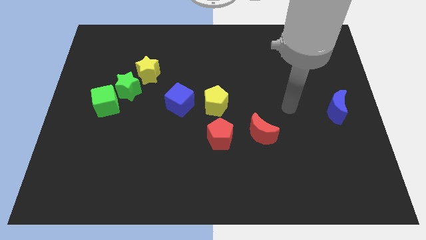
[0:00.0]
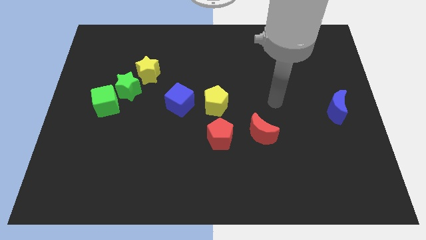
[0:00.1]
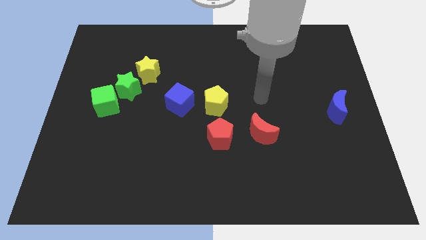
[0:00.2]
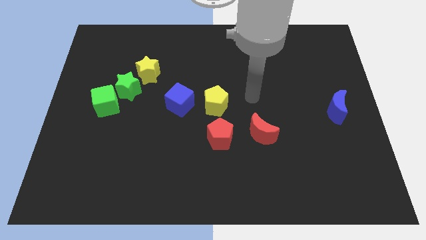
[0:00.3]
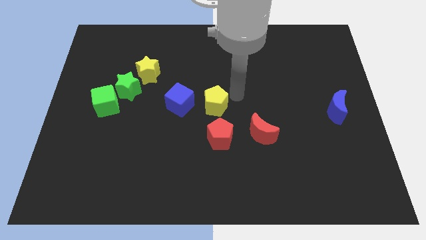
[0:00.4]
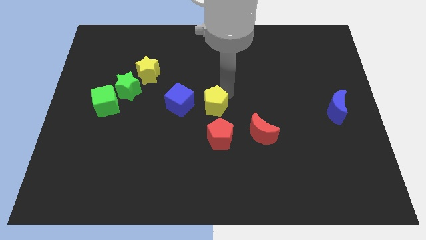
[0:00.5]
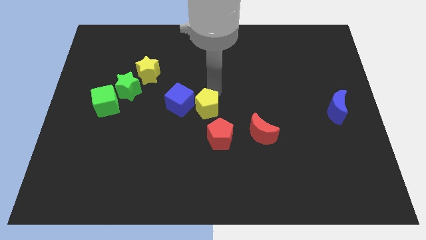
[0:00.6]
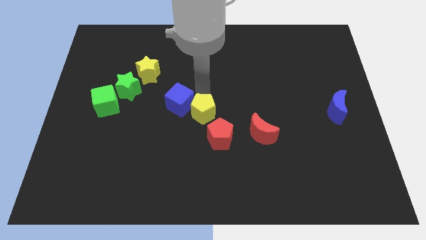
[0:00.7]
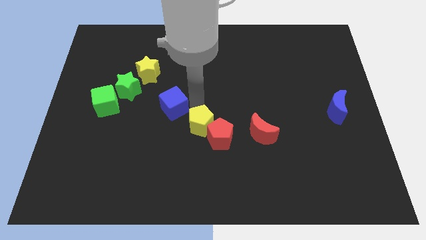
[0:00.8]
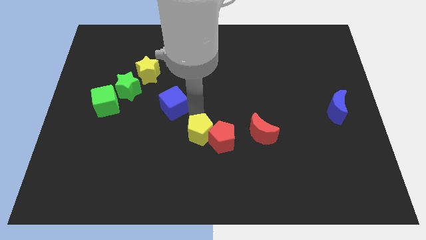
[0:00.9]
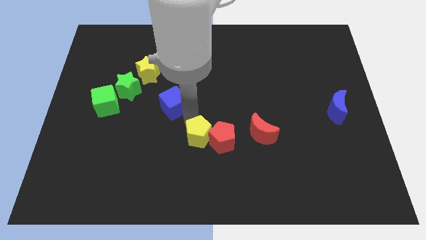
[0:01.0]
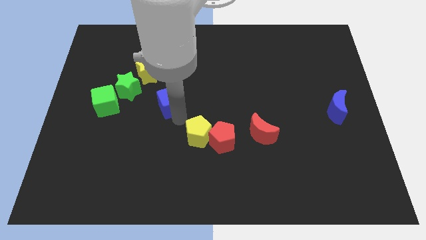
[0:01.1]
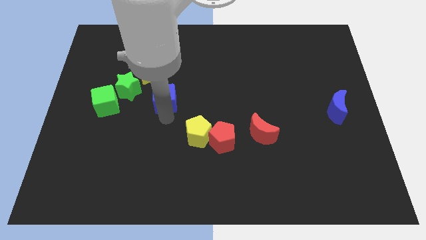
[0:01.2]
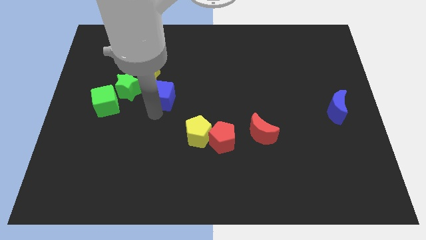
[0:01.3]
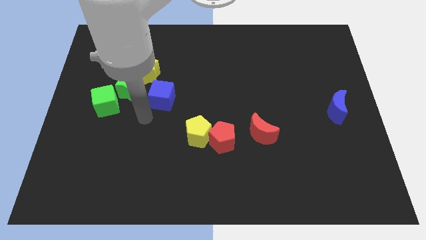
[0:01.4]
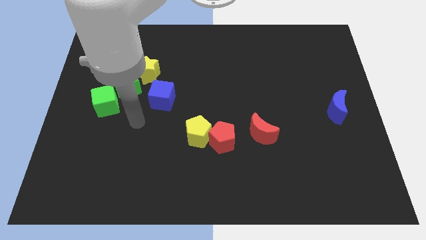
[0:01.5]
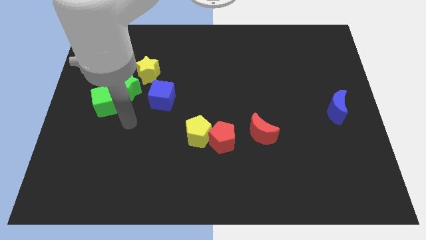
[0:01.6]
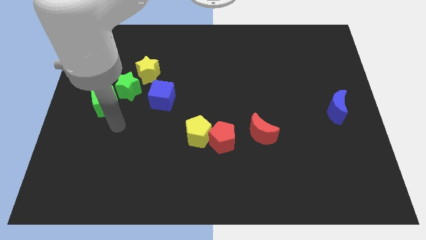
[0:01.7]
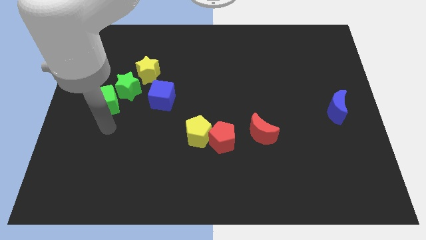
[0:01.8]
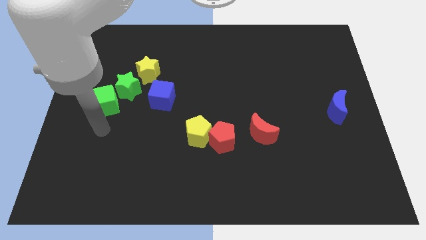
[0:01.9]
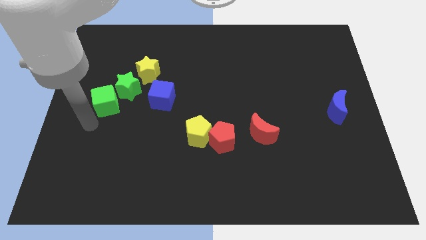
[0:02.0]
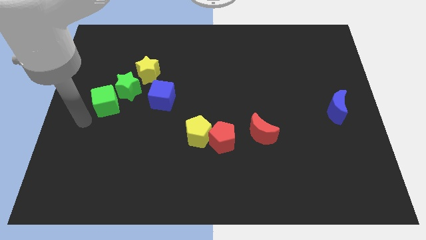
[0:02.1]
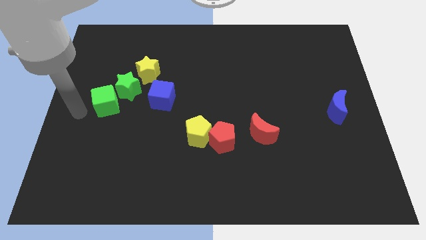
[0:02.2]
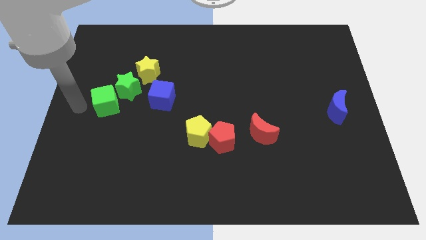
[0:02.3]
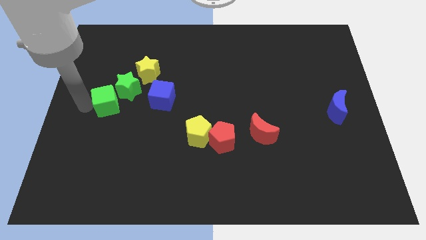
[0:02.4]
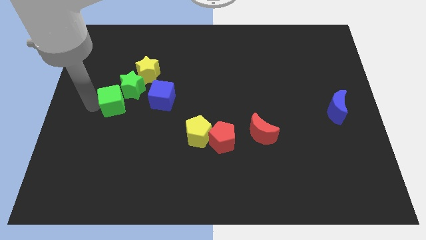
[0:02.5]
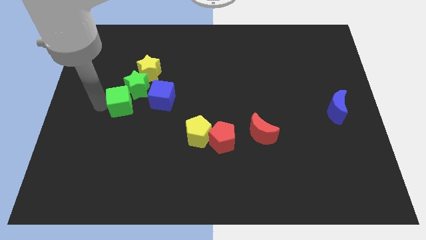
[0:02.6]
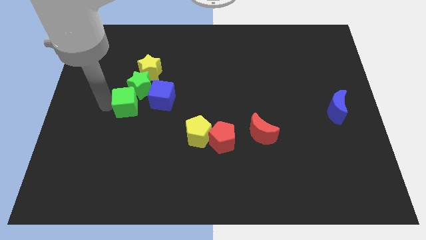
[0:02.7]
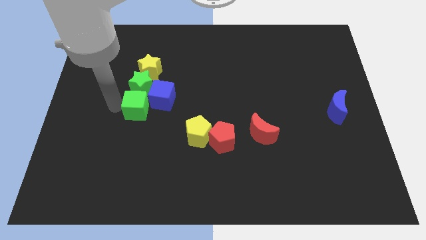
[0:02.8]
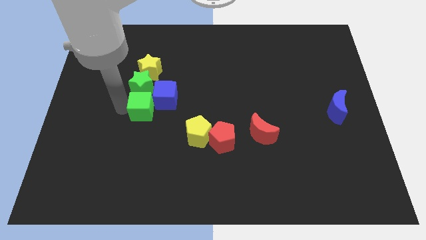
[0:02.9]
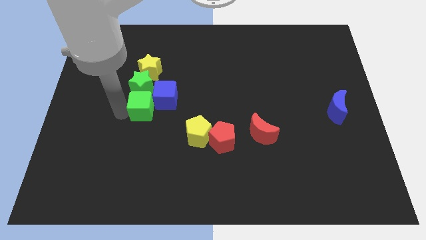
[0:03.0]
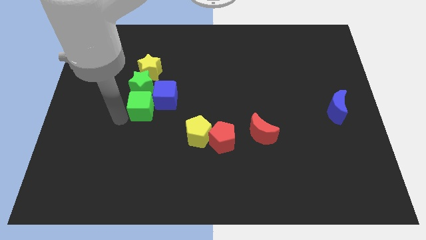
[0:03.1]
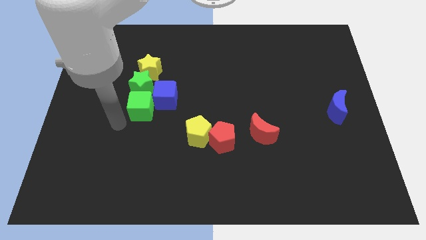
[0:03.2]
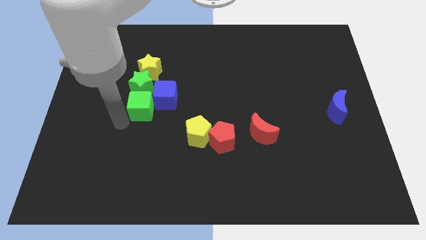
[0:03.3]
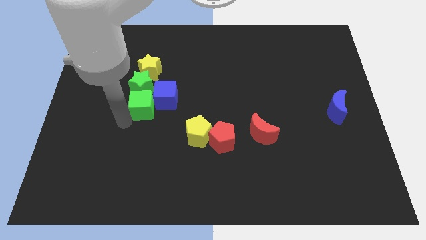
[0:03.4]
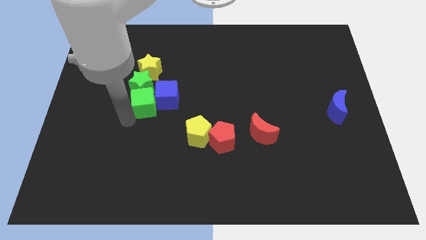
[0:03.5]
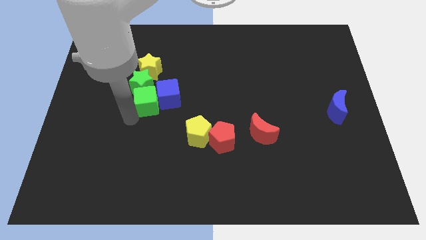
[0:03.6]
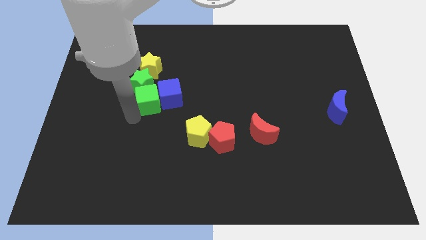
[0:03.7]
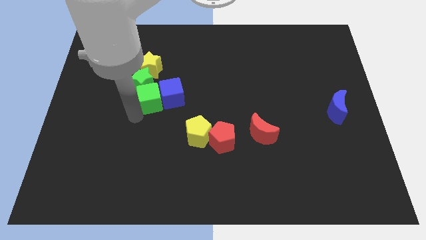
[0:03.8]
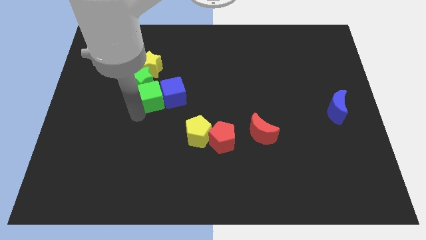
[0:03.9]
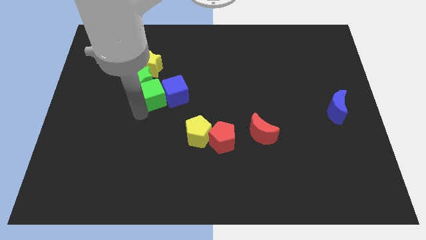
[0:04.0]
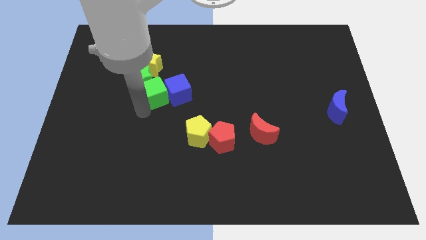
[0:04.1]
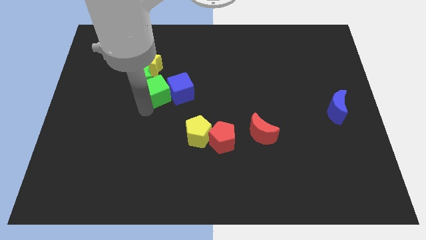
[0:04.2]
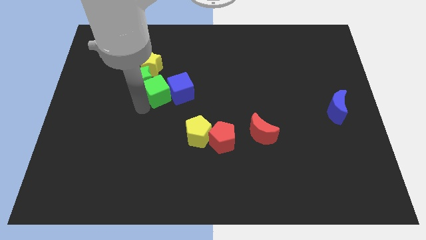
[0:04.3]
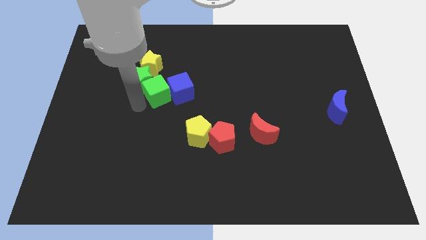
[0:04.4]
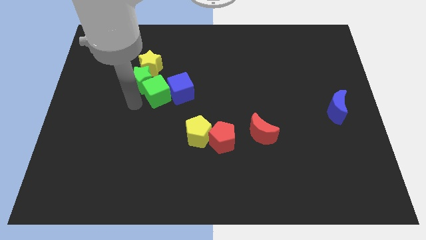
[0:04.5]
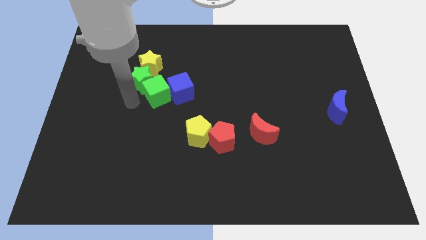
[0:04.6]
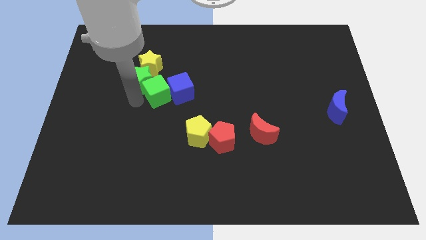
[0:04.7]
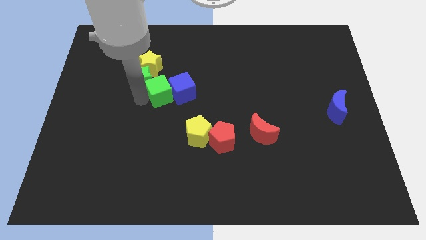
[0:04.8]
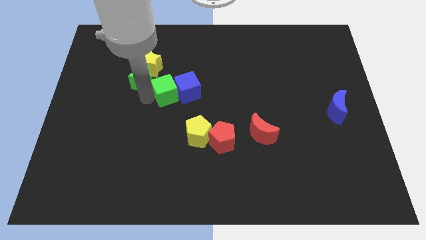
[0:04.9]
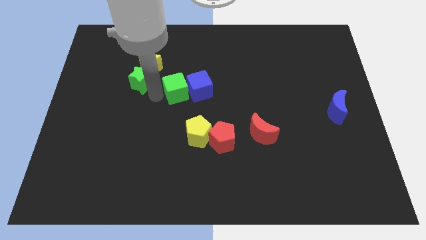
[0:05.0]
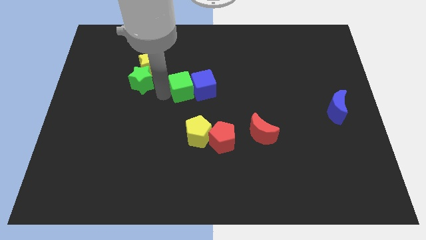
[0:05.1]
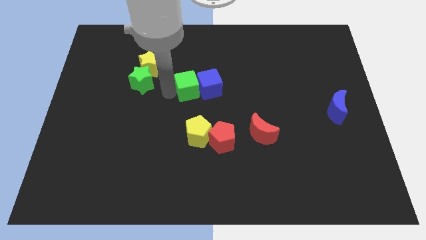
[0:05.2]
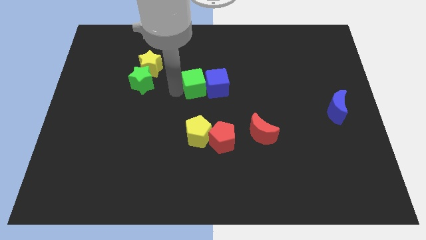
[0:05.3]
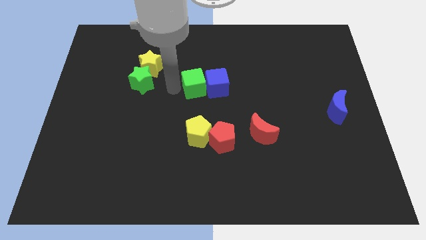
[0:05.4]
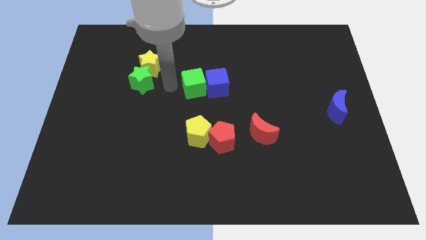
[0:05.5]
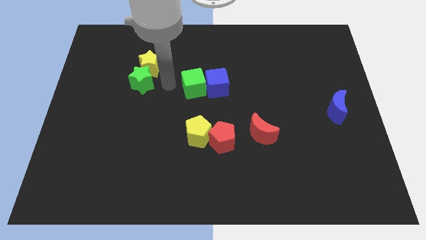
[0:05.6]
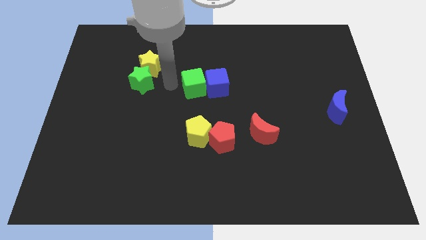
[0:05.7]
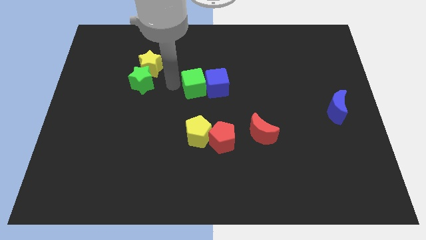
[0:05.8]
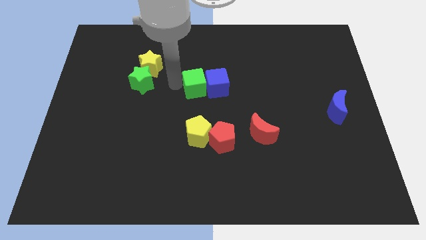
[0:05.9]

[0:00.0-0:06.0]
push the green cube right

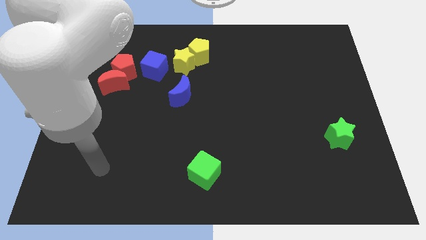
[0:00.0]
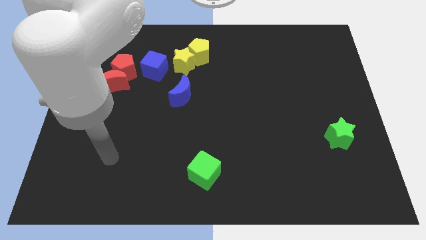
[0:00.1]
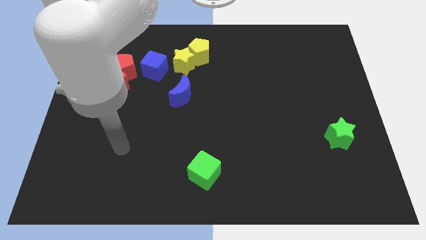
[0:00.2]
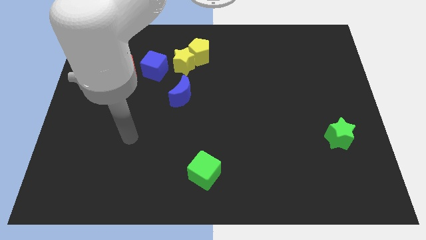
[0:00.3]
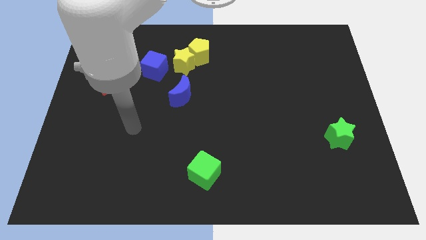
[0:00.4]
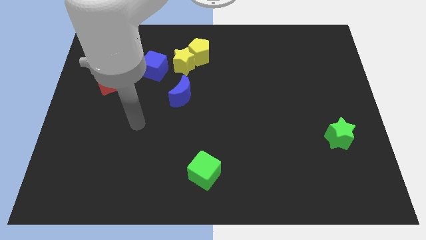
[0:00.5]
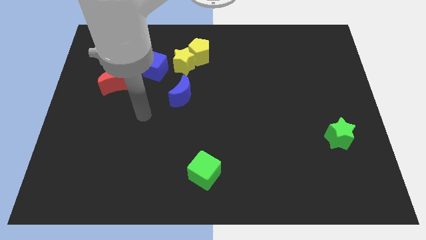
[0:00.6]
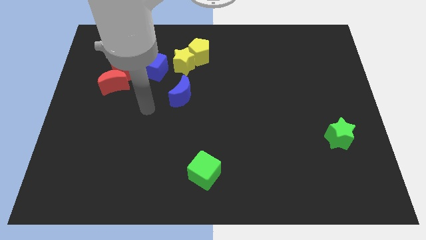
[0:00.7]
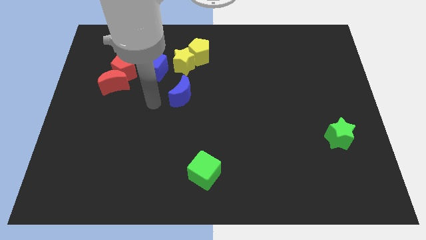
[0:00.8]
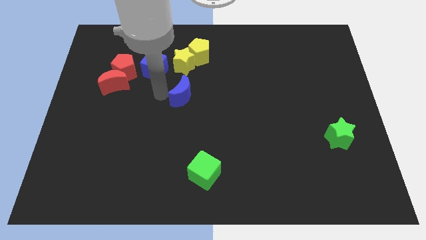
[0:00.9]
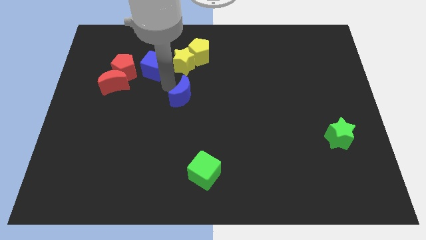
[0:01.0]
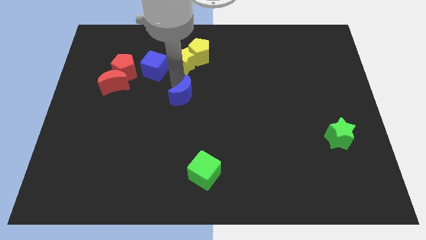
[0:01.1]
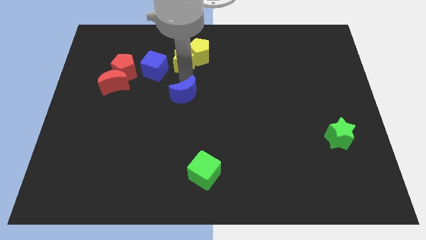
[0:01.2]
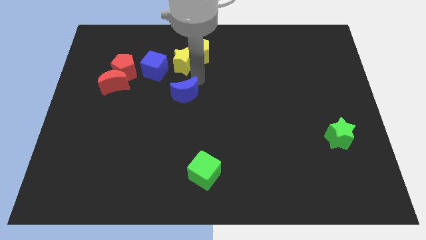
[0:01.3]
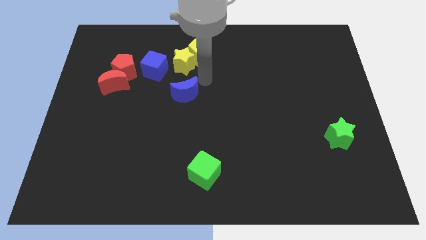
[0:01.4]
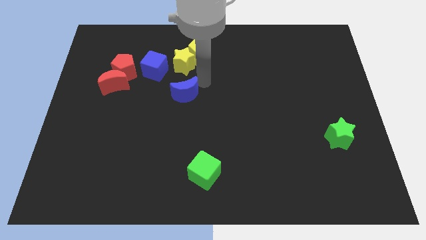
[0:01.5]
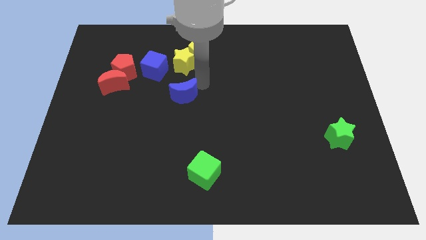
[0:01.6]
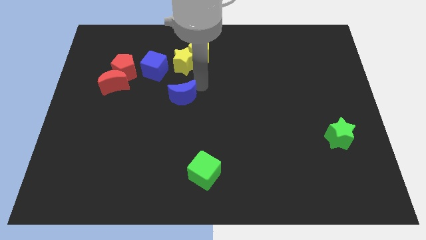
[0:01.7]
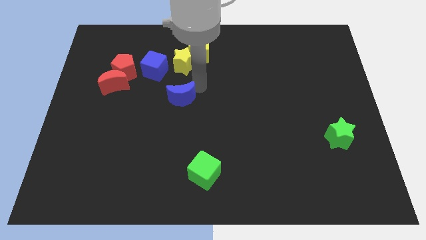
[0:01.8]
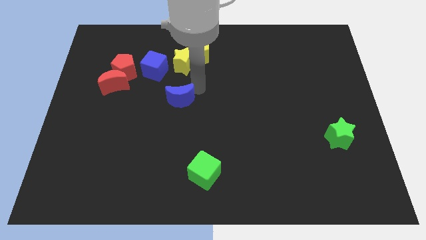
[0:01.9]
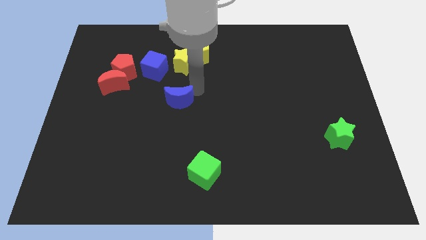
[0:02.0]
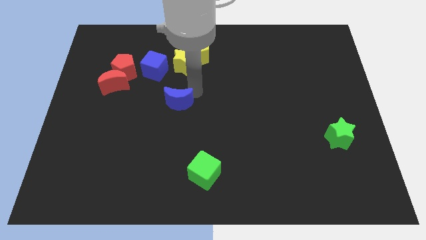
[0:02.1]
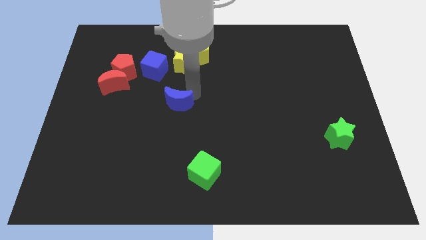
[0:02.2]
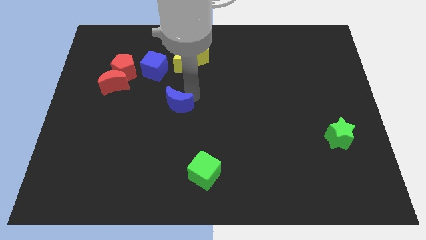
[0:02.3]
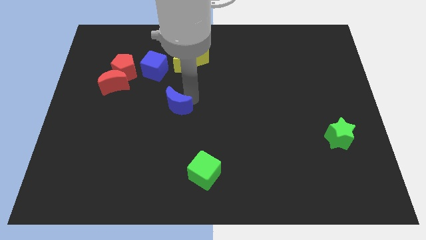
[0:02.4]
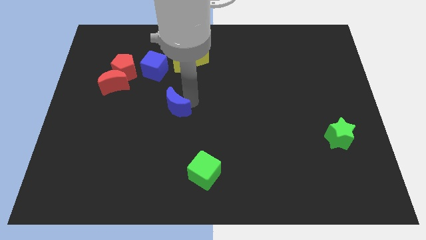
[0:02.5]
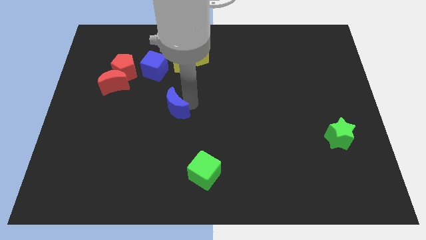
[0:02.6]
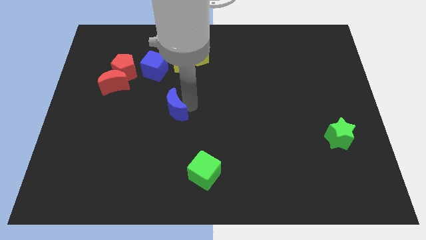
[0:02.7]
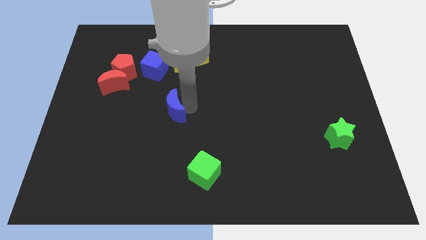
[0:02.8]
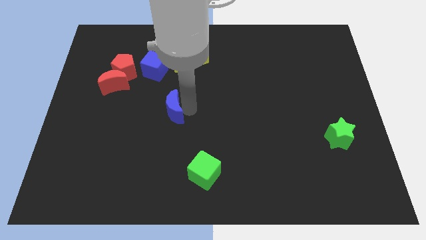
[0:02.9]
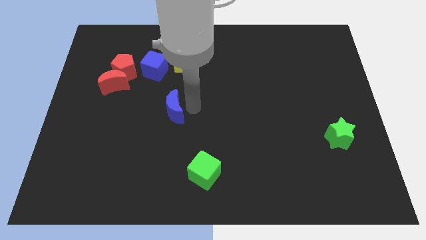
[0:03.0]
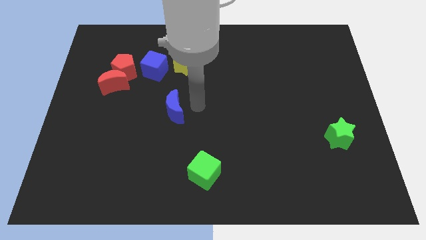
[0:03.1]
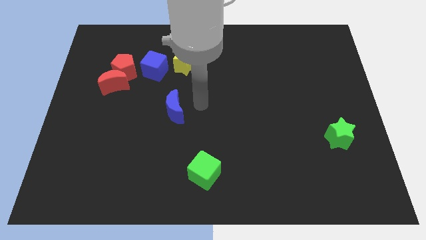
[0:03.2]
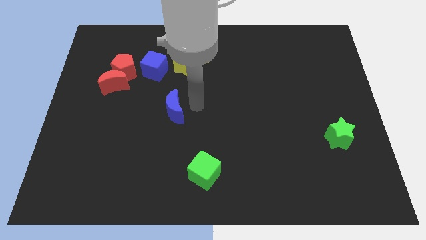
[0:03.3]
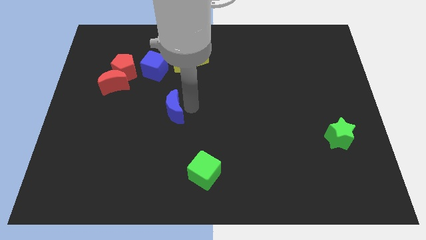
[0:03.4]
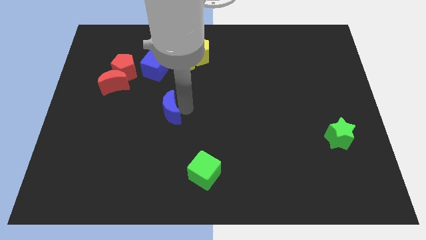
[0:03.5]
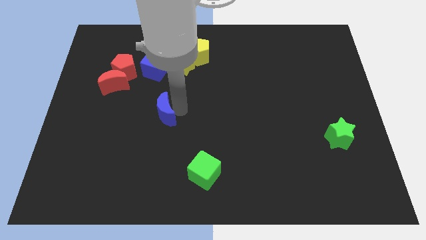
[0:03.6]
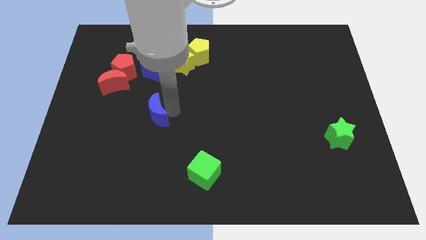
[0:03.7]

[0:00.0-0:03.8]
push the blue moon downwards and then to the left a bit
